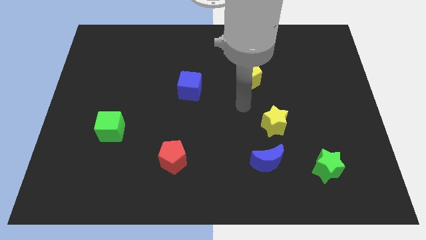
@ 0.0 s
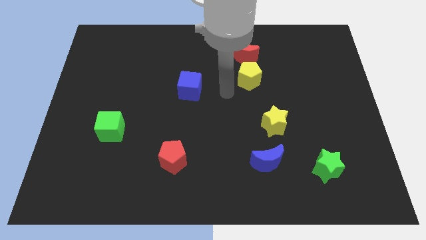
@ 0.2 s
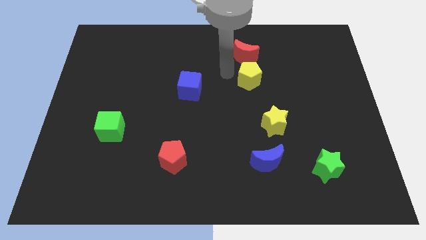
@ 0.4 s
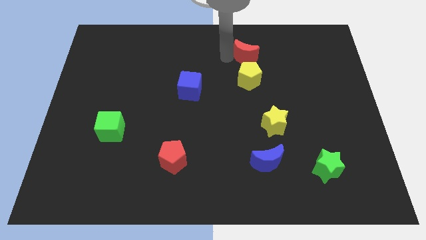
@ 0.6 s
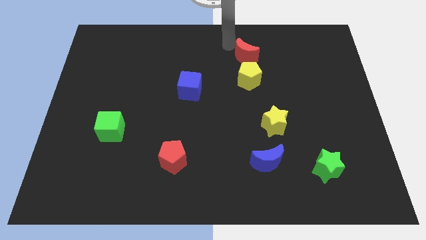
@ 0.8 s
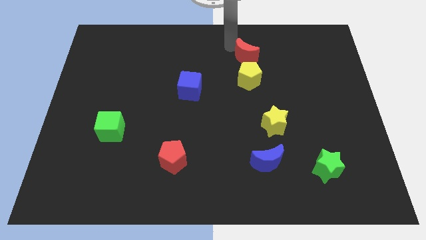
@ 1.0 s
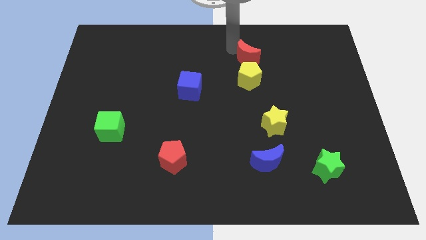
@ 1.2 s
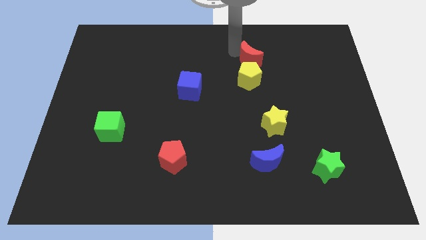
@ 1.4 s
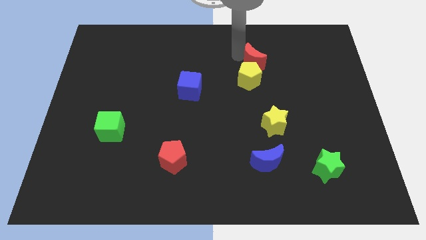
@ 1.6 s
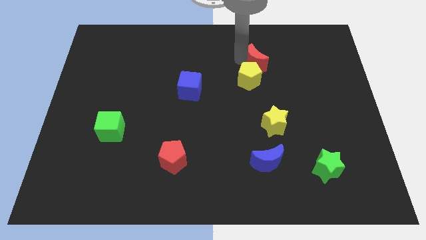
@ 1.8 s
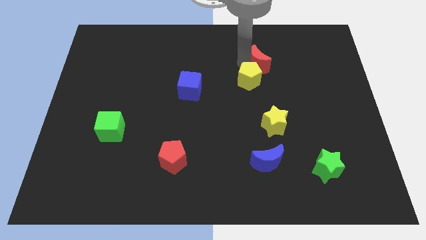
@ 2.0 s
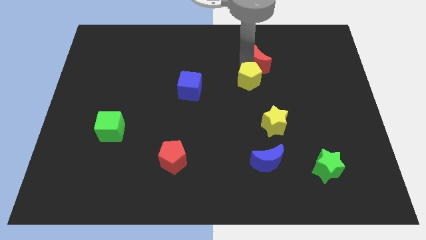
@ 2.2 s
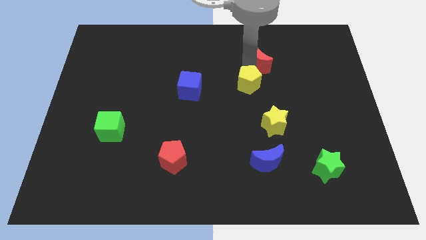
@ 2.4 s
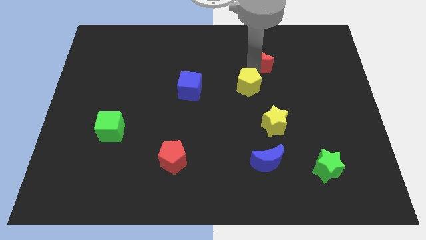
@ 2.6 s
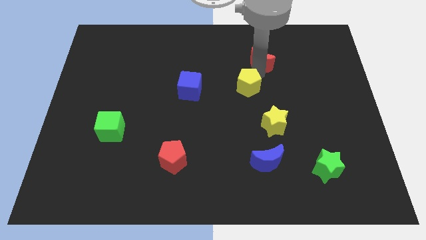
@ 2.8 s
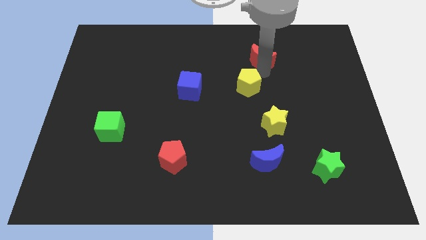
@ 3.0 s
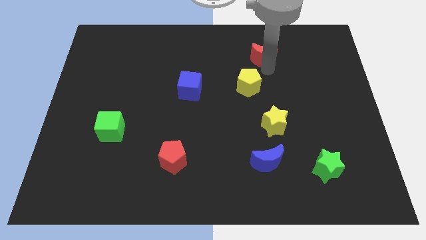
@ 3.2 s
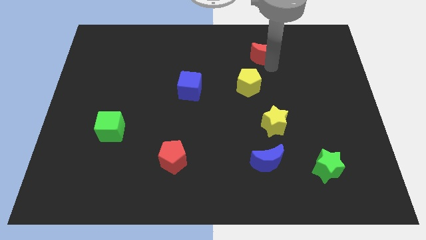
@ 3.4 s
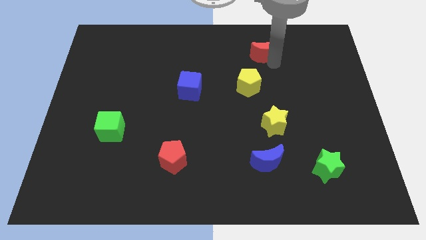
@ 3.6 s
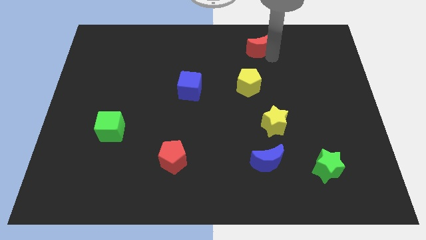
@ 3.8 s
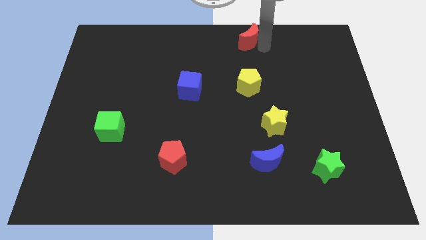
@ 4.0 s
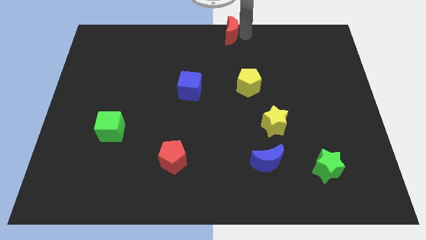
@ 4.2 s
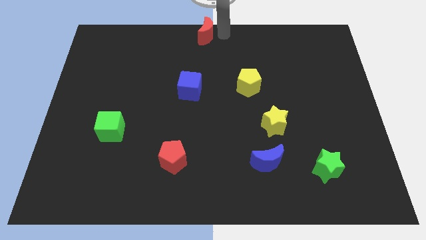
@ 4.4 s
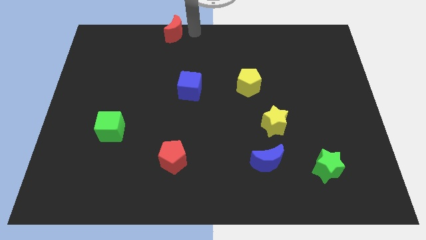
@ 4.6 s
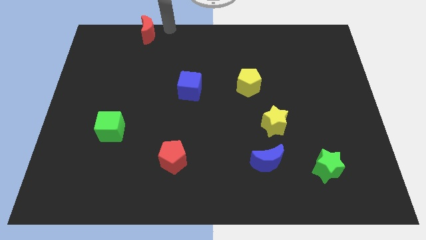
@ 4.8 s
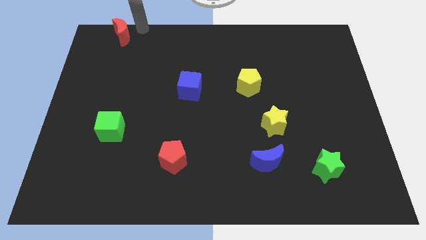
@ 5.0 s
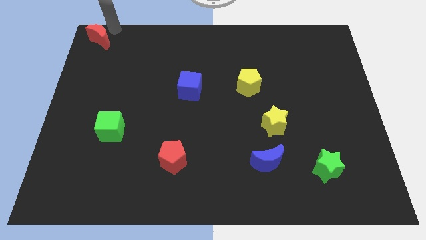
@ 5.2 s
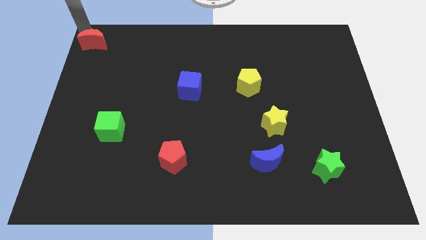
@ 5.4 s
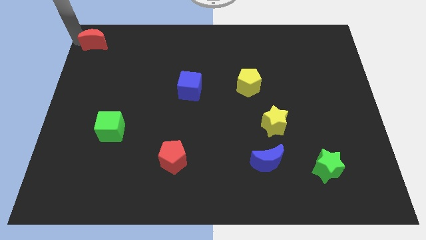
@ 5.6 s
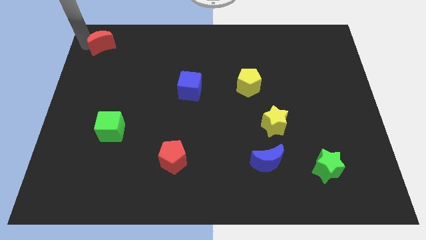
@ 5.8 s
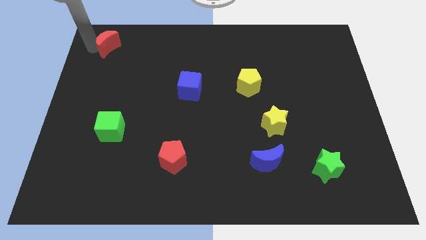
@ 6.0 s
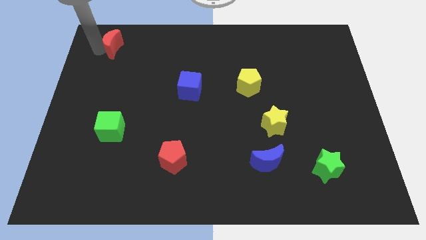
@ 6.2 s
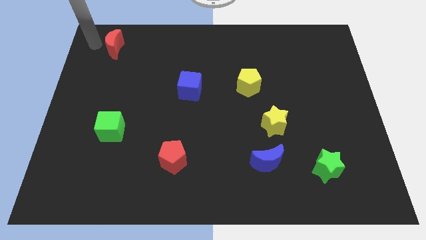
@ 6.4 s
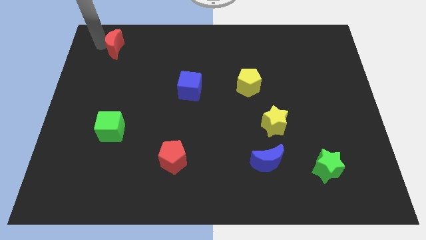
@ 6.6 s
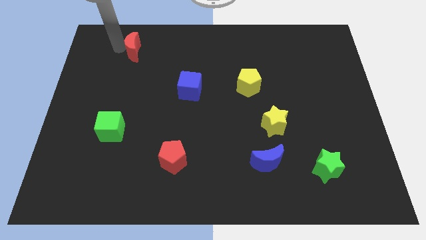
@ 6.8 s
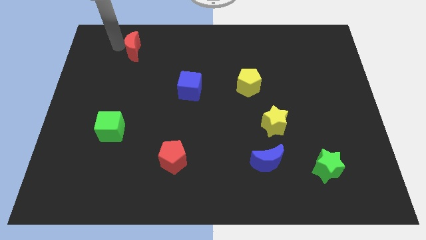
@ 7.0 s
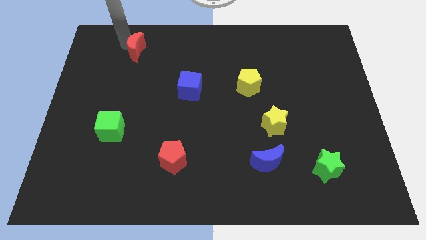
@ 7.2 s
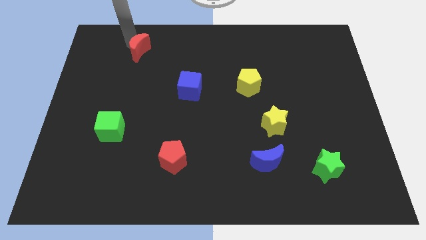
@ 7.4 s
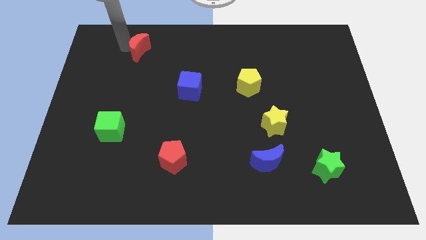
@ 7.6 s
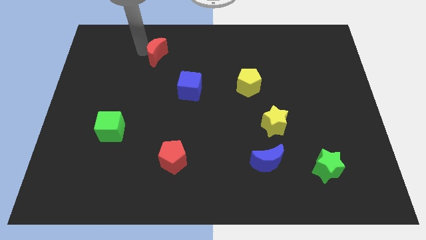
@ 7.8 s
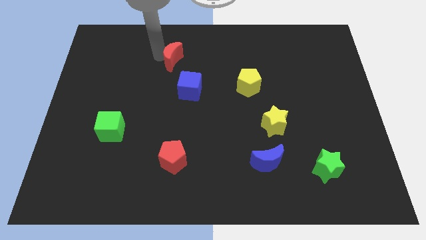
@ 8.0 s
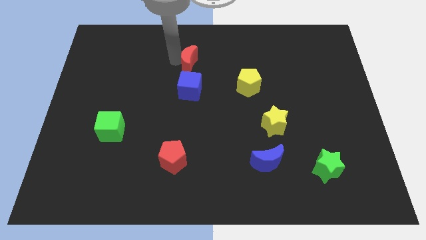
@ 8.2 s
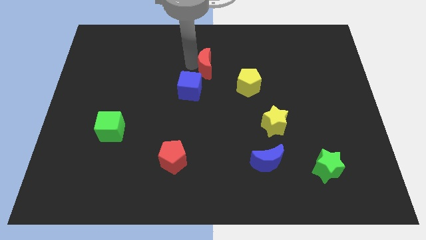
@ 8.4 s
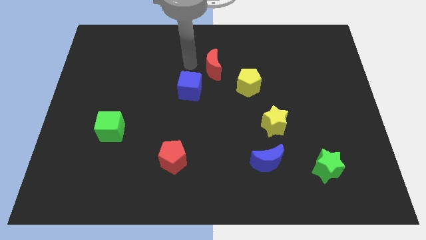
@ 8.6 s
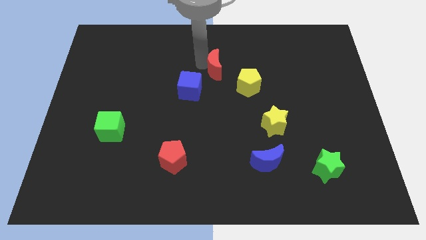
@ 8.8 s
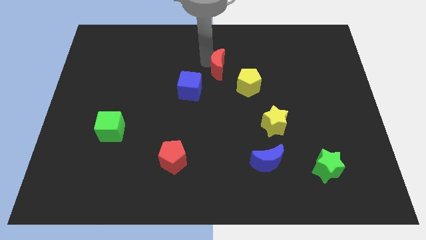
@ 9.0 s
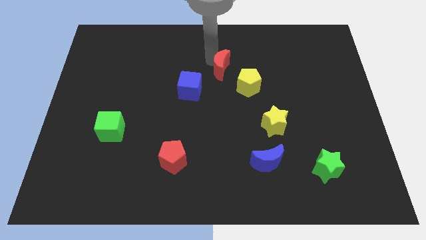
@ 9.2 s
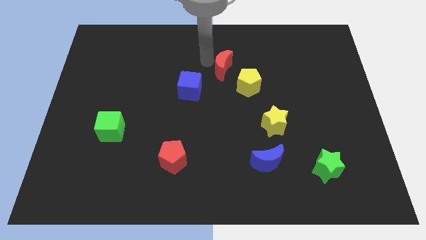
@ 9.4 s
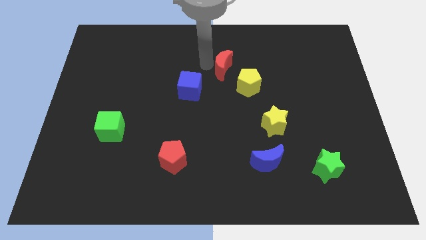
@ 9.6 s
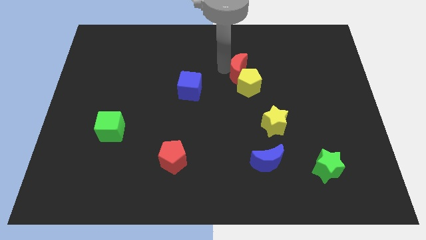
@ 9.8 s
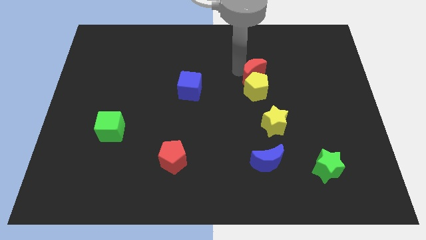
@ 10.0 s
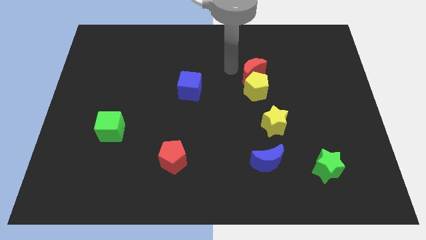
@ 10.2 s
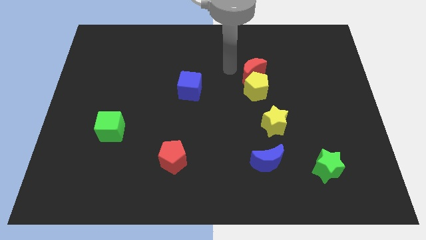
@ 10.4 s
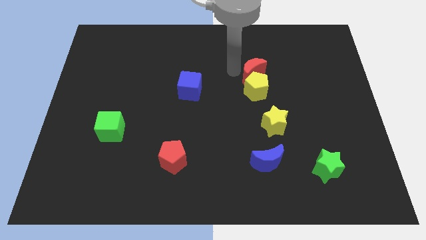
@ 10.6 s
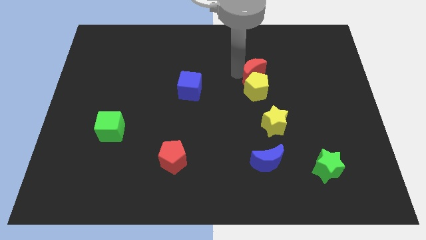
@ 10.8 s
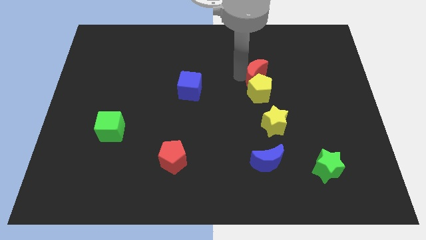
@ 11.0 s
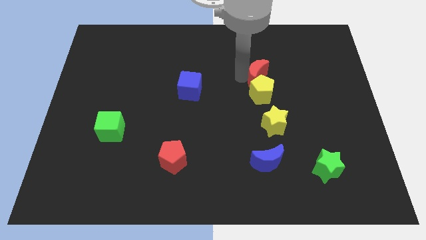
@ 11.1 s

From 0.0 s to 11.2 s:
slide the red moon above the yellow star
